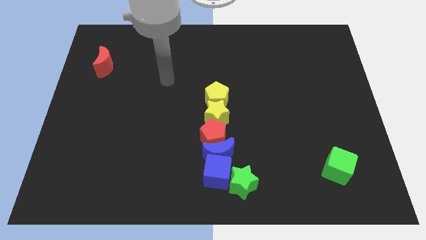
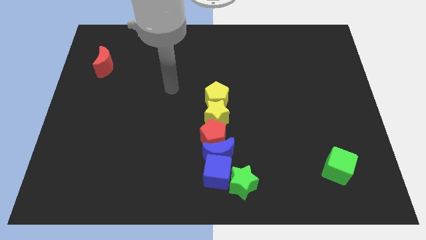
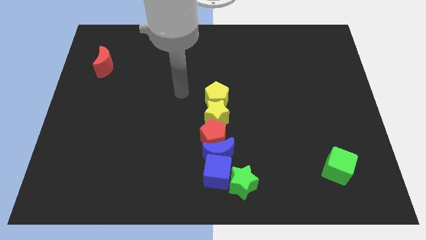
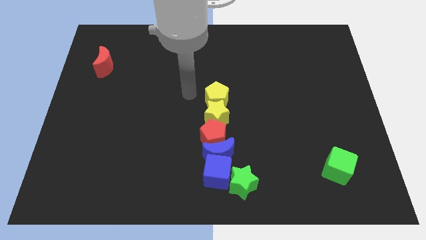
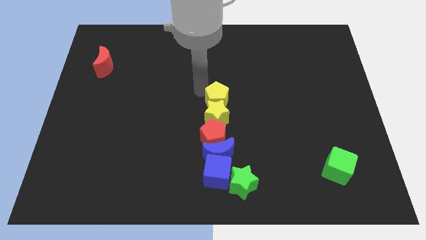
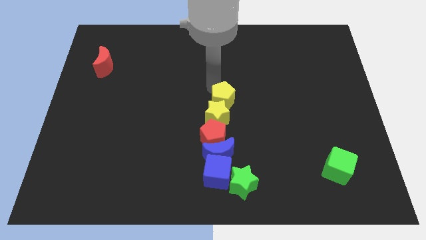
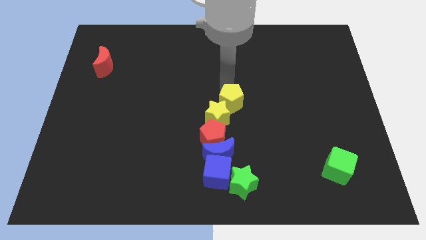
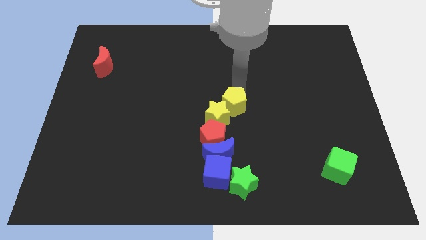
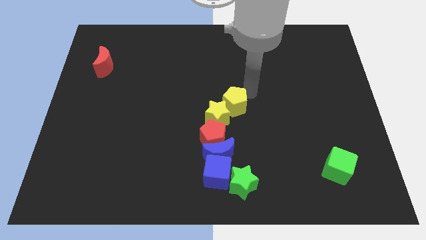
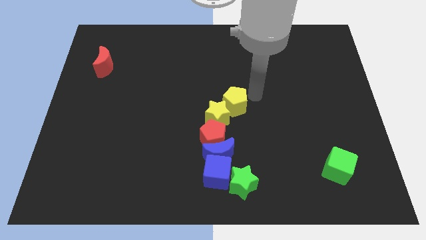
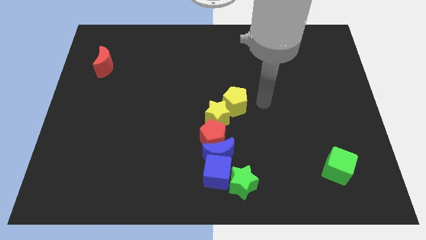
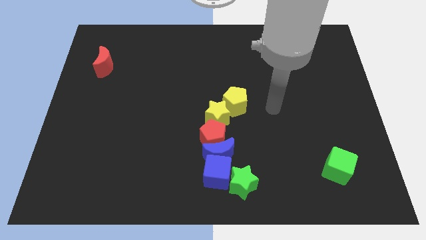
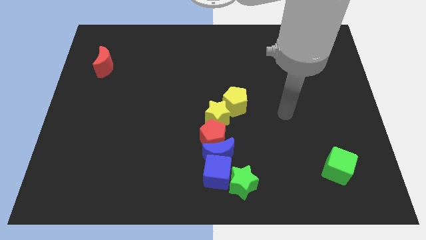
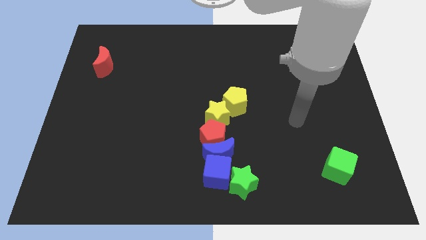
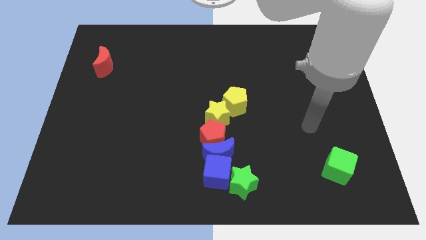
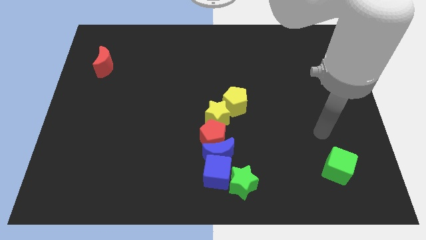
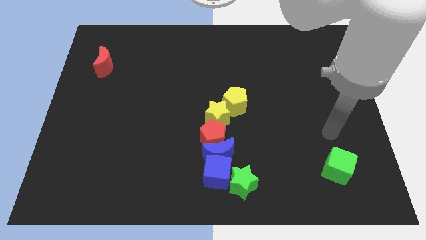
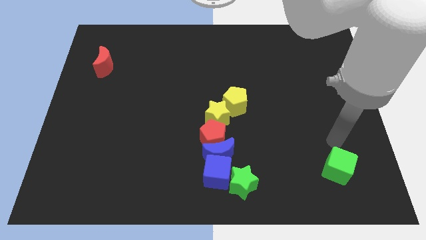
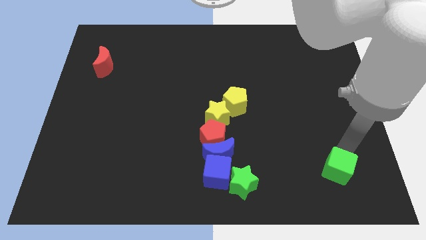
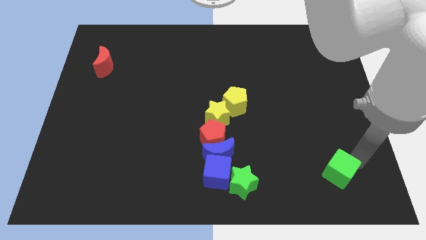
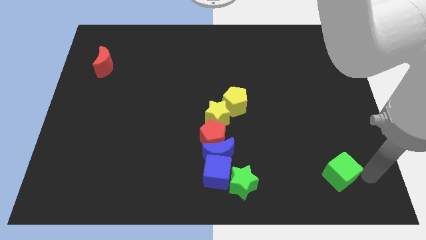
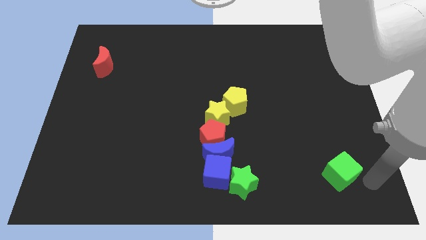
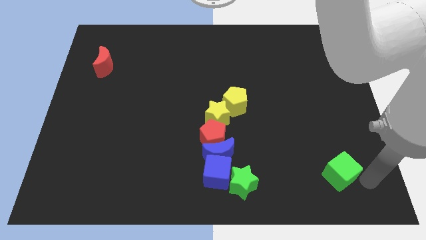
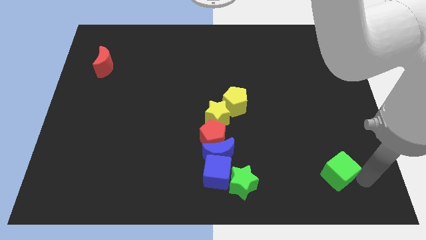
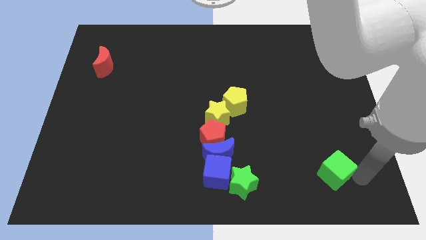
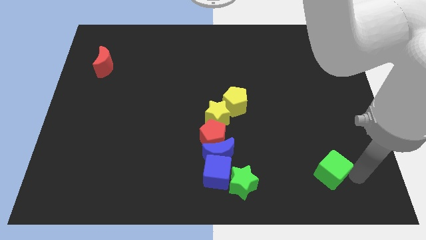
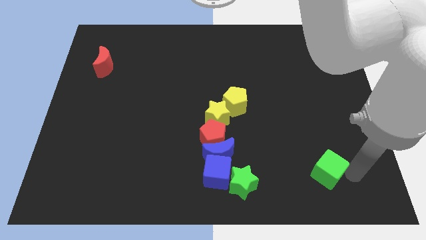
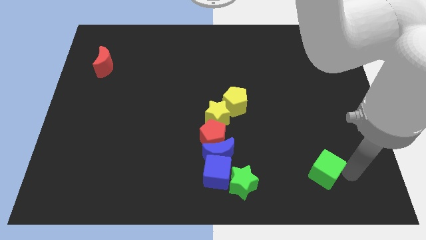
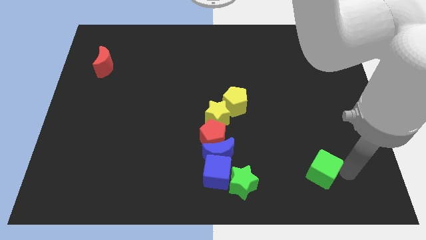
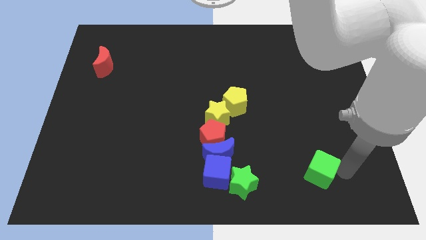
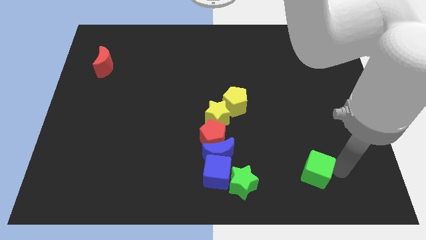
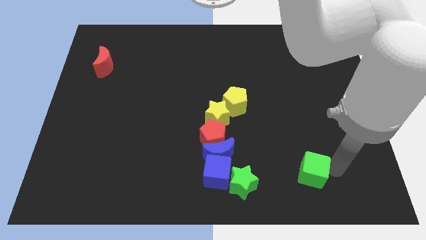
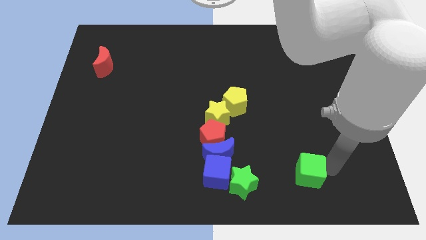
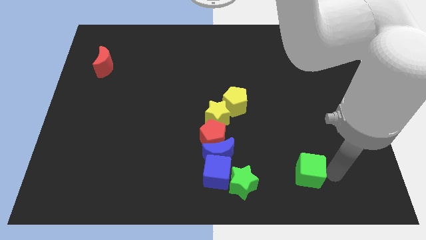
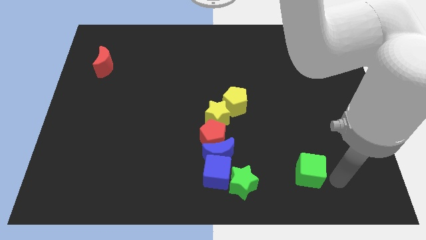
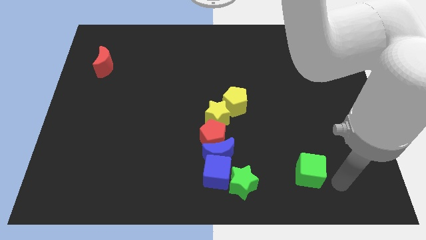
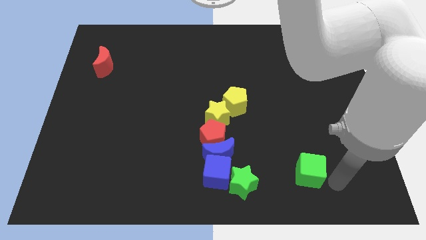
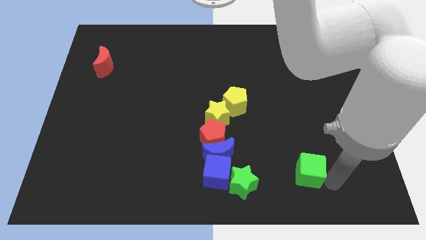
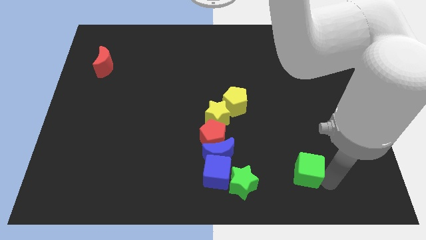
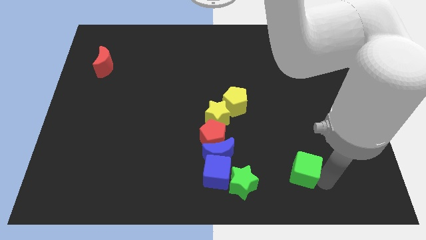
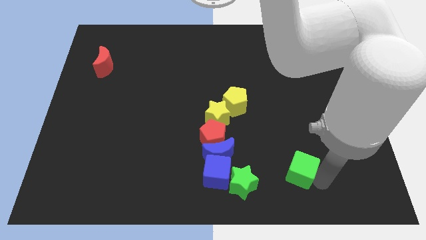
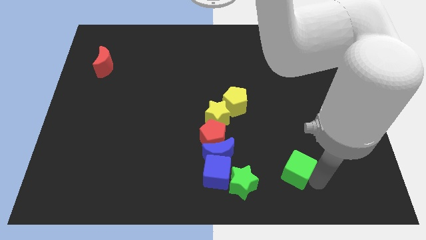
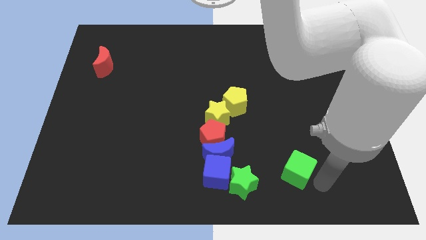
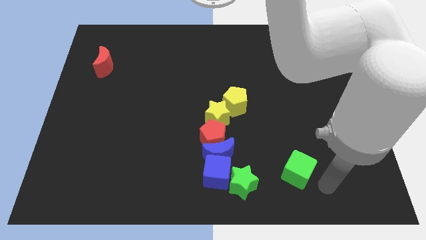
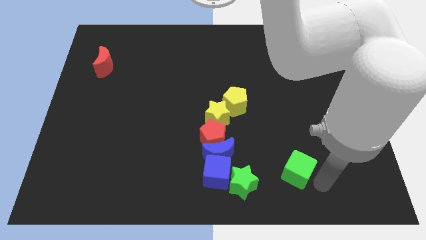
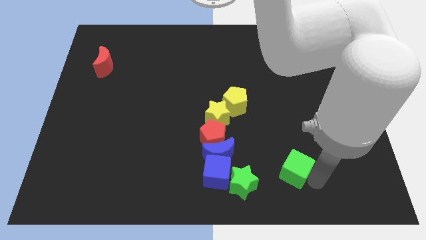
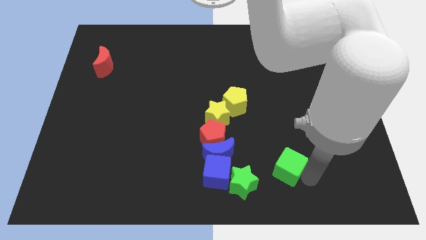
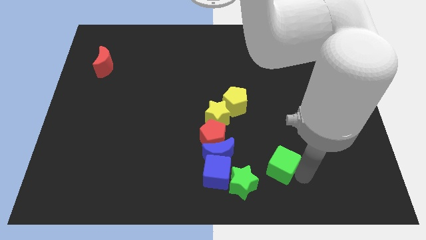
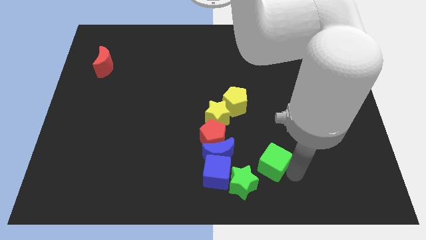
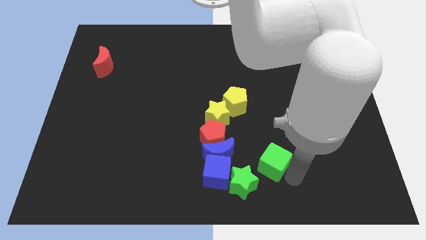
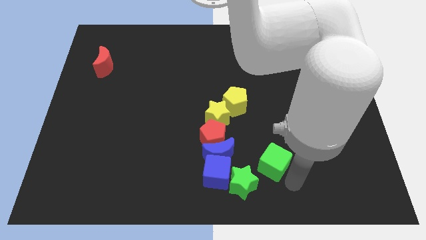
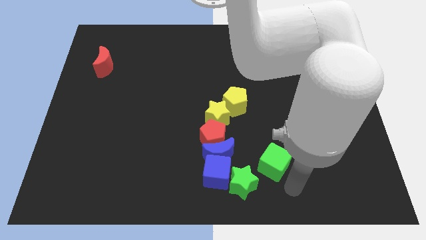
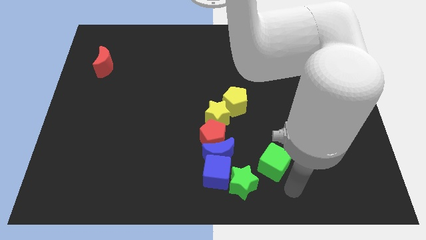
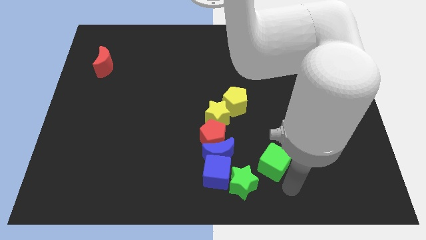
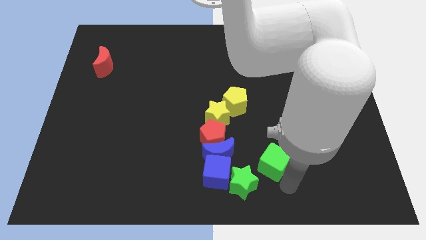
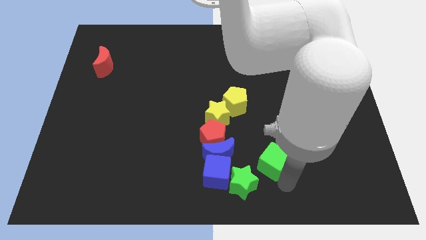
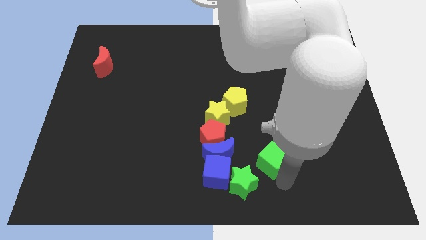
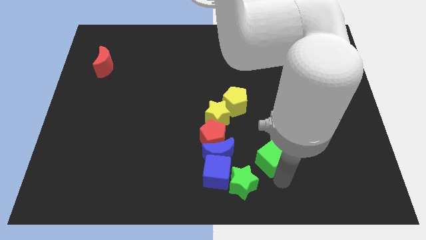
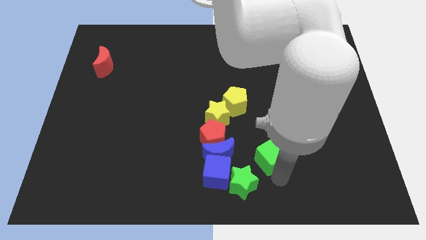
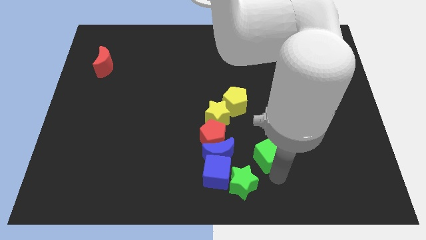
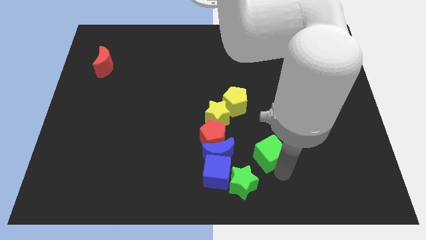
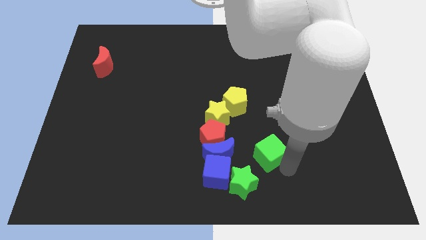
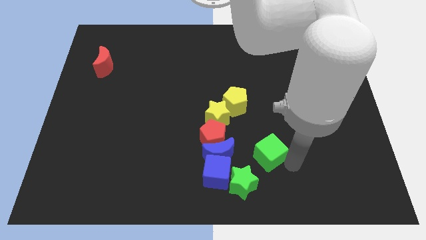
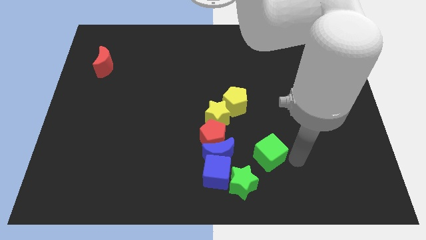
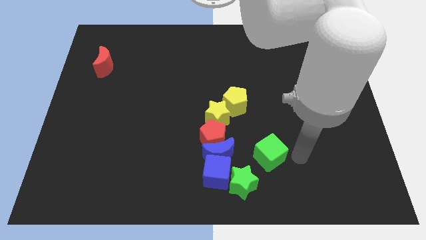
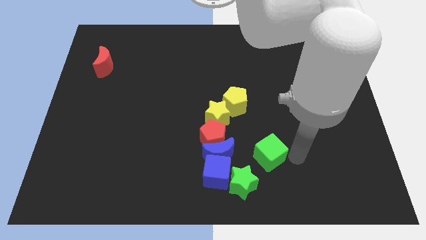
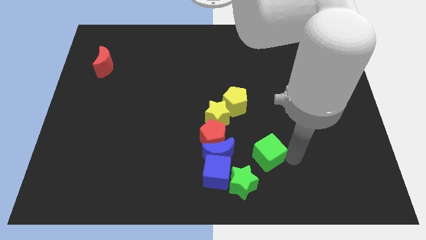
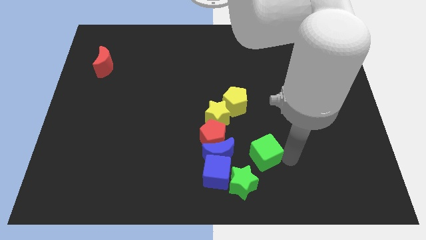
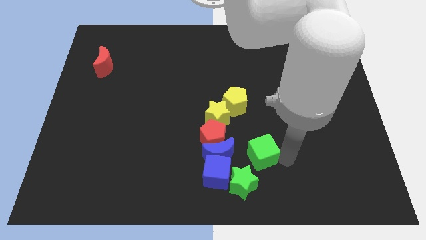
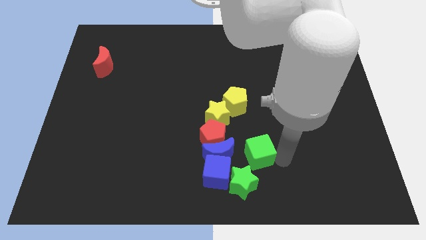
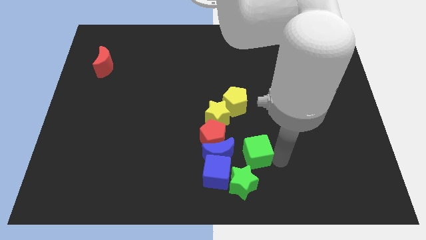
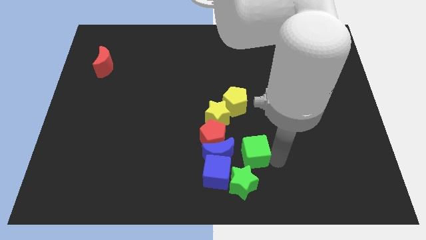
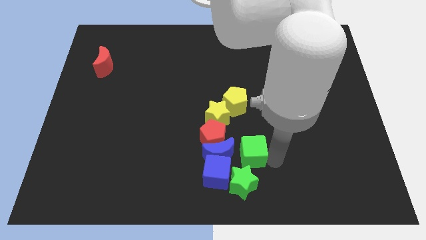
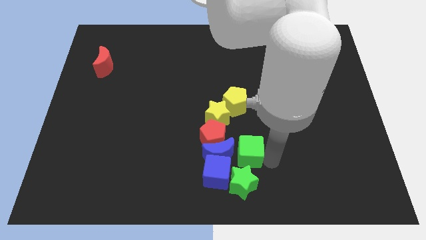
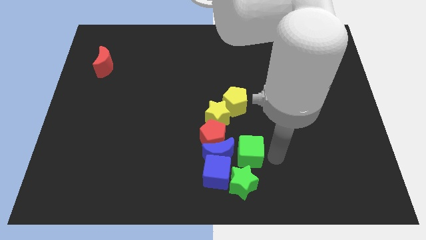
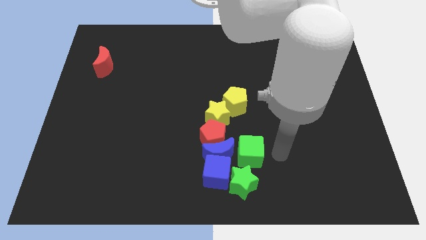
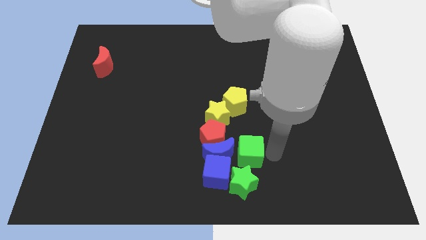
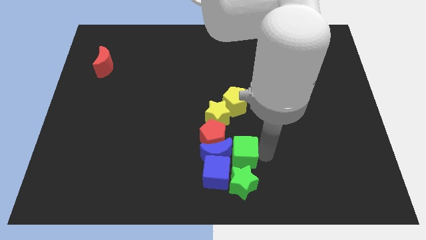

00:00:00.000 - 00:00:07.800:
put the green cube next to the blue moon
